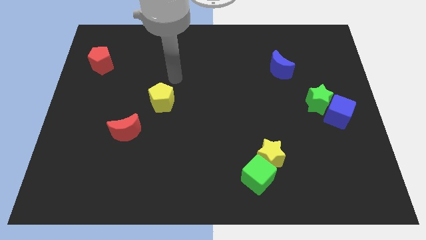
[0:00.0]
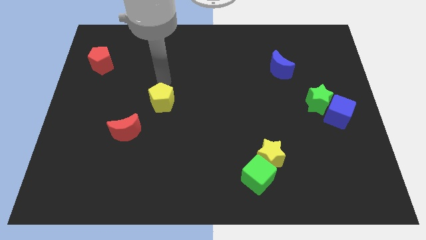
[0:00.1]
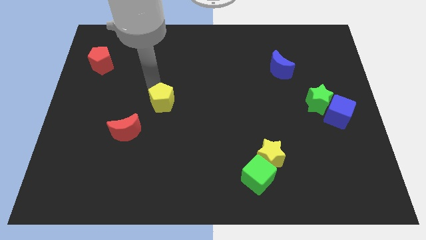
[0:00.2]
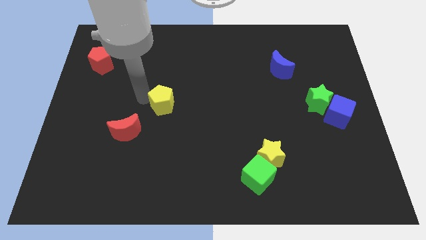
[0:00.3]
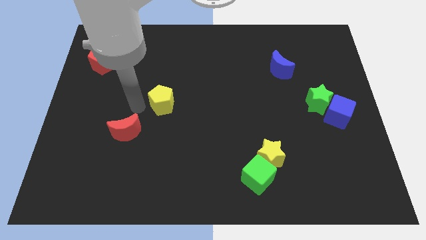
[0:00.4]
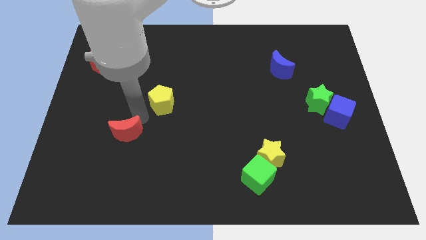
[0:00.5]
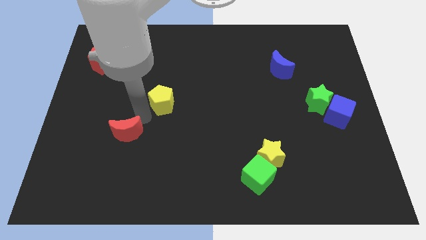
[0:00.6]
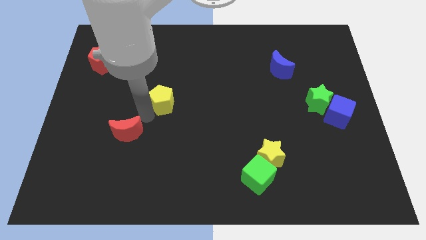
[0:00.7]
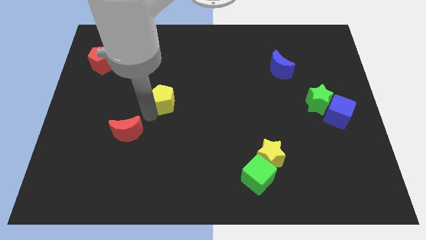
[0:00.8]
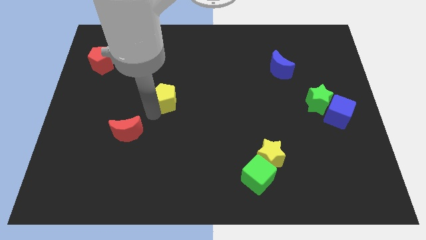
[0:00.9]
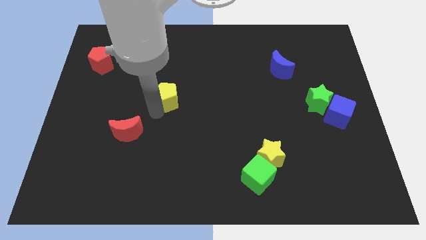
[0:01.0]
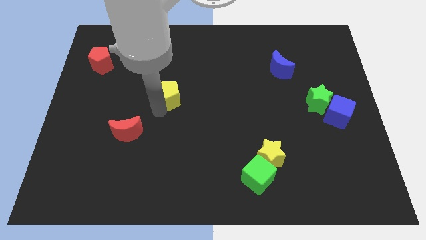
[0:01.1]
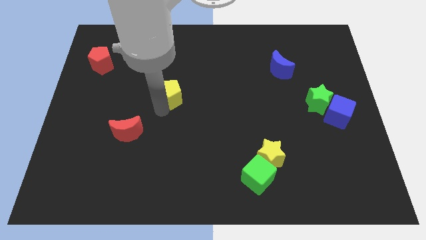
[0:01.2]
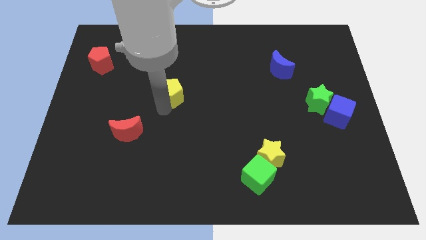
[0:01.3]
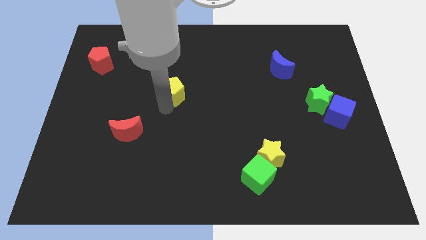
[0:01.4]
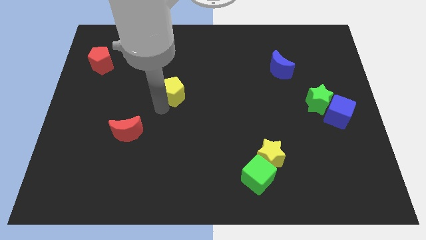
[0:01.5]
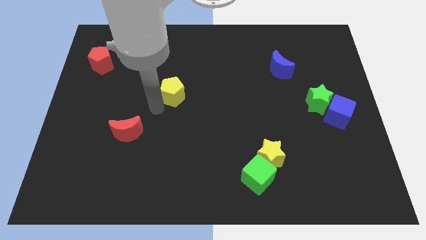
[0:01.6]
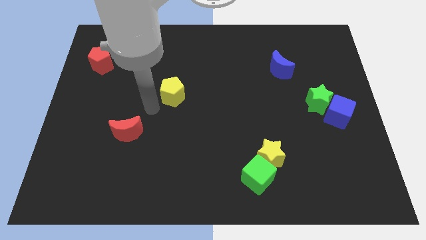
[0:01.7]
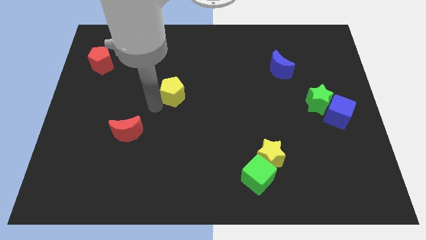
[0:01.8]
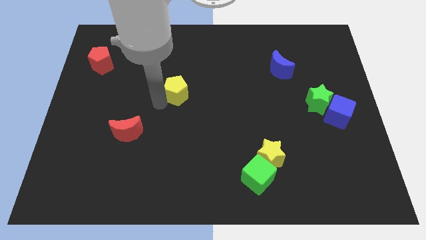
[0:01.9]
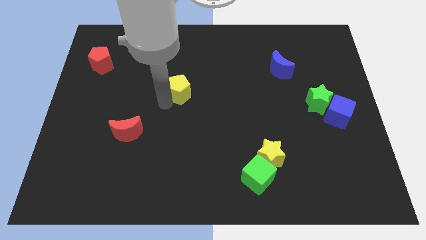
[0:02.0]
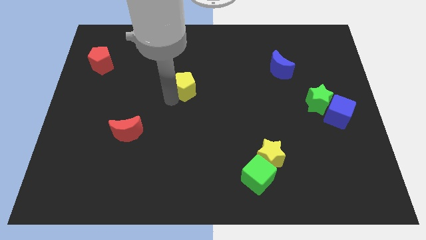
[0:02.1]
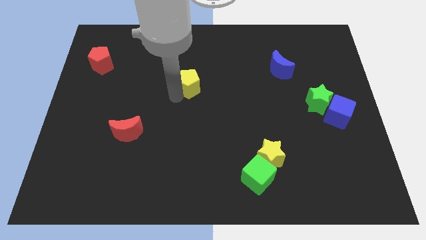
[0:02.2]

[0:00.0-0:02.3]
slide the yellow pentagon a little diagonally upwards and right

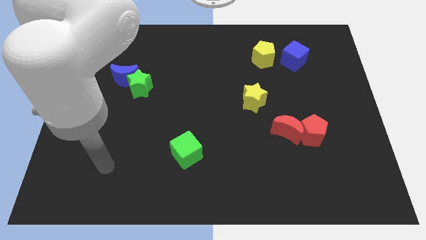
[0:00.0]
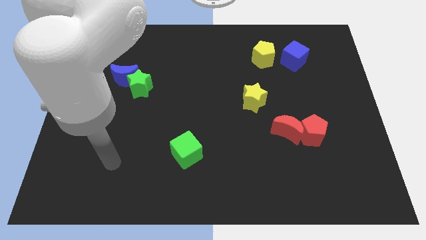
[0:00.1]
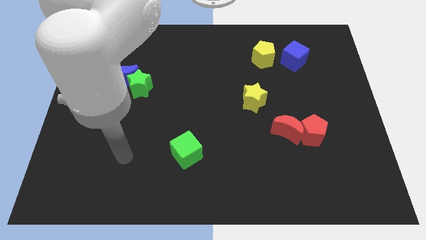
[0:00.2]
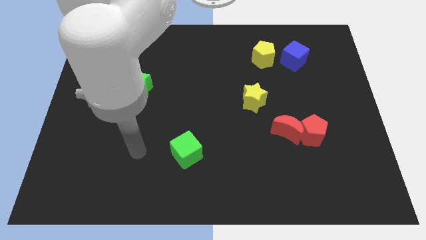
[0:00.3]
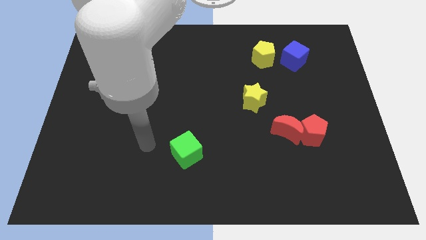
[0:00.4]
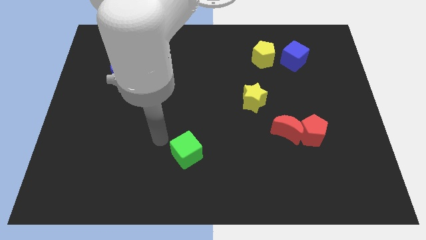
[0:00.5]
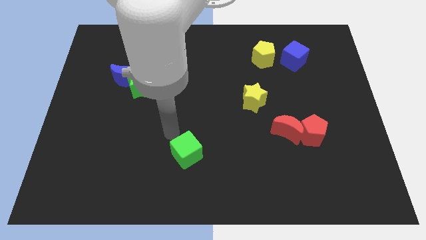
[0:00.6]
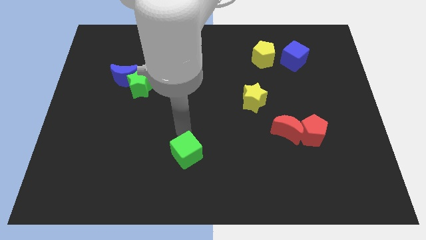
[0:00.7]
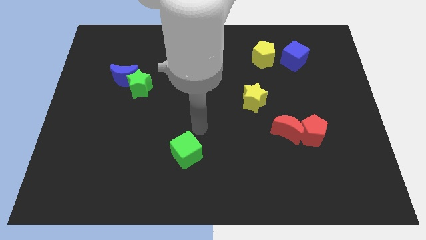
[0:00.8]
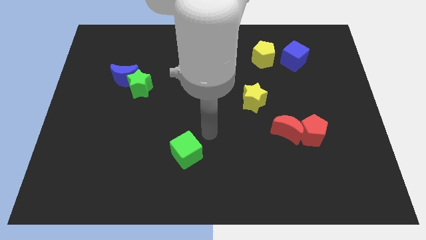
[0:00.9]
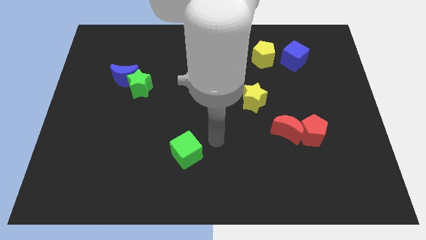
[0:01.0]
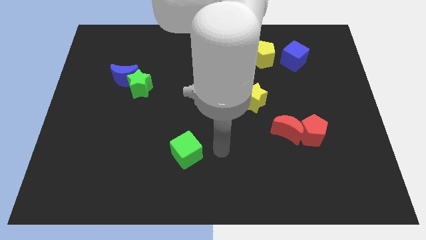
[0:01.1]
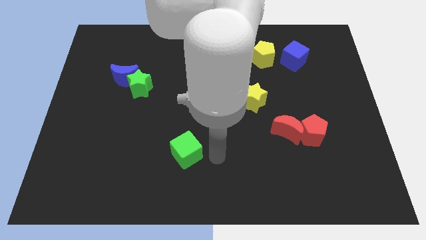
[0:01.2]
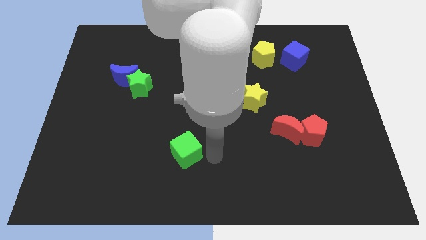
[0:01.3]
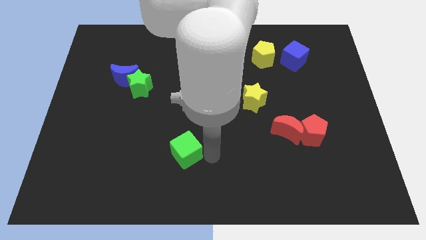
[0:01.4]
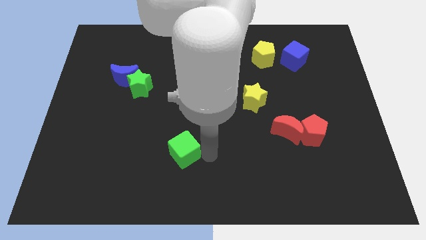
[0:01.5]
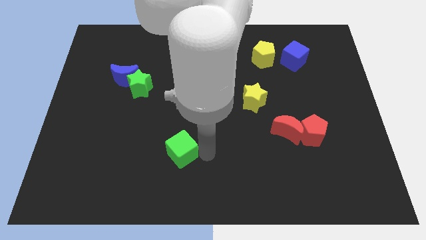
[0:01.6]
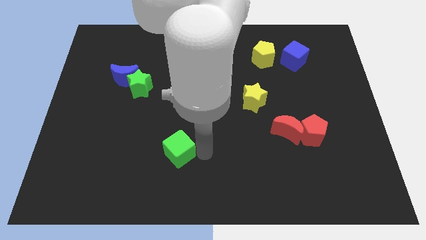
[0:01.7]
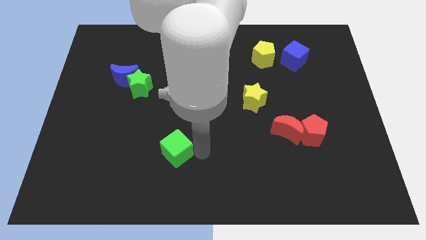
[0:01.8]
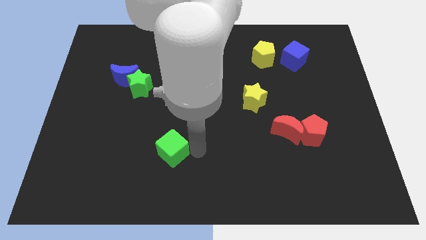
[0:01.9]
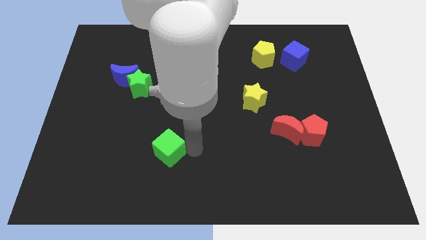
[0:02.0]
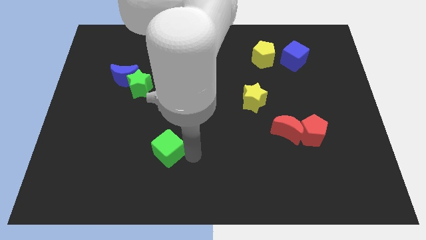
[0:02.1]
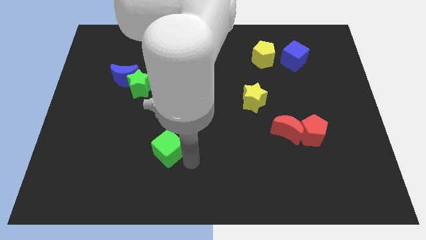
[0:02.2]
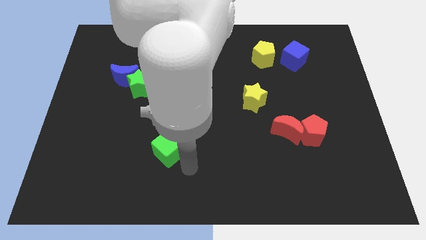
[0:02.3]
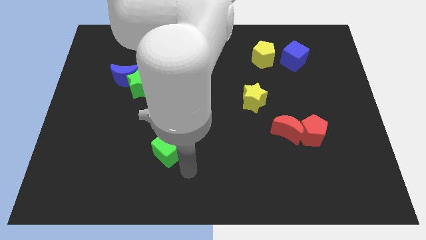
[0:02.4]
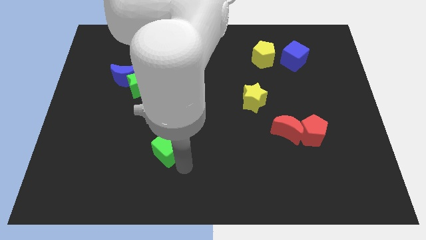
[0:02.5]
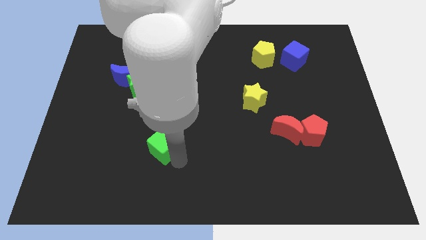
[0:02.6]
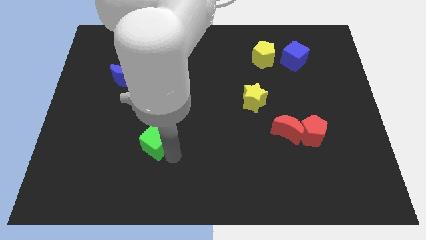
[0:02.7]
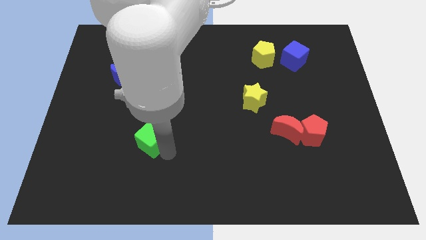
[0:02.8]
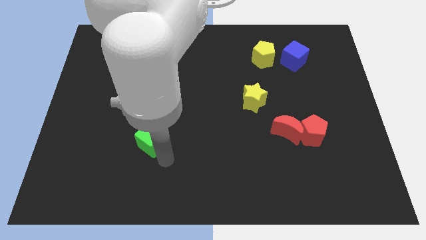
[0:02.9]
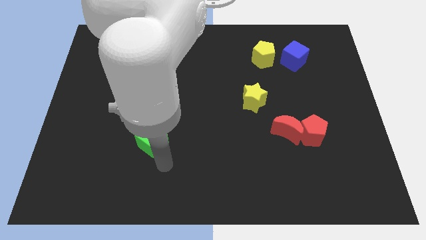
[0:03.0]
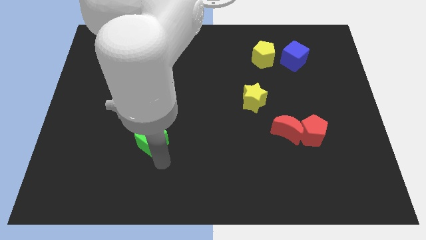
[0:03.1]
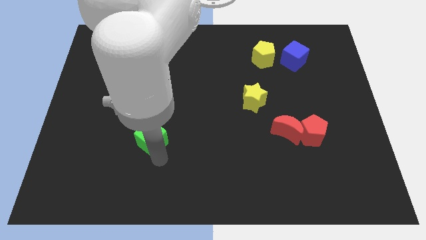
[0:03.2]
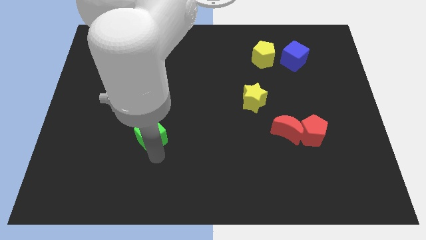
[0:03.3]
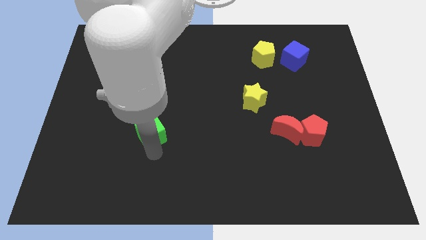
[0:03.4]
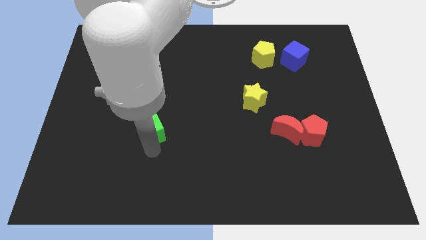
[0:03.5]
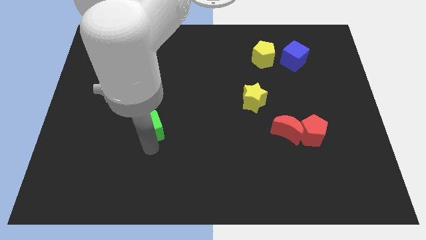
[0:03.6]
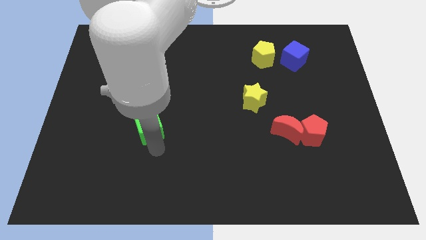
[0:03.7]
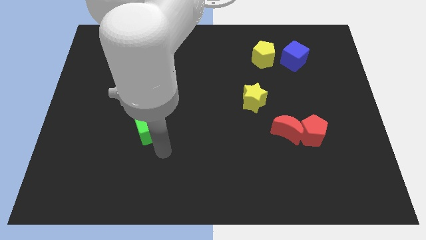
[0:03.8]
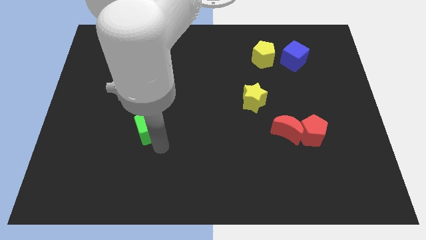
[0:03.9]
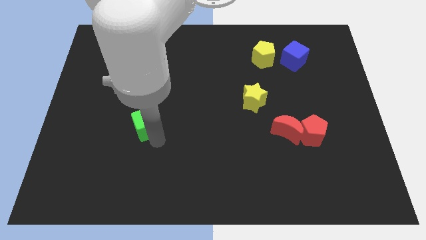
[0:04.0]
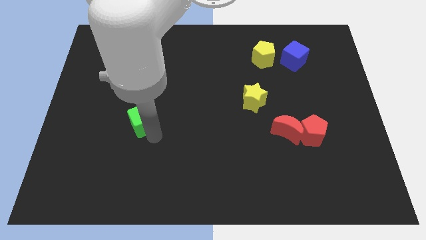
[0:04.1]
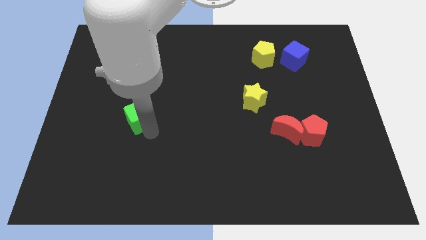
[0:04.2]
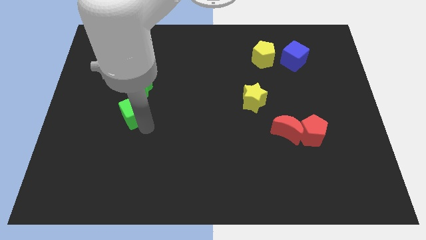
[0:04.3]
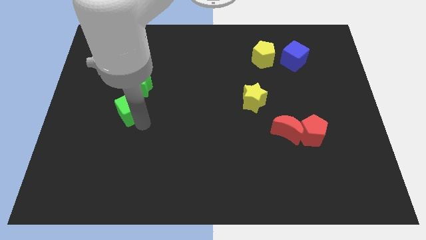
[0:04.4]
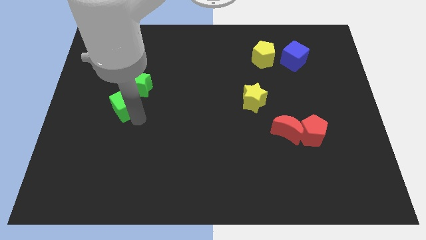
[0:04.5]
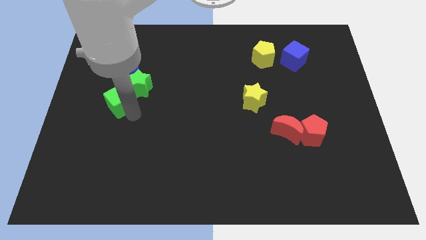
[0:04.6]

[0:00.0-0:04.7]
move the green cube diagonally upwards and to the left

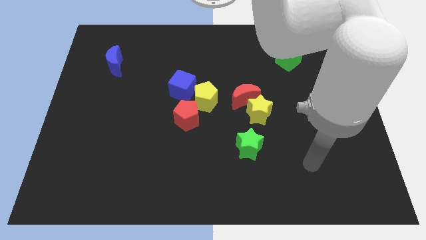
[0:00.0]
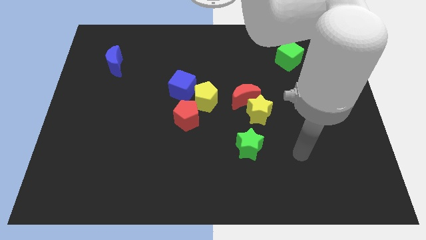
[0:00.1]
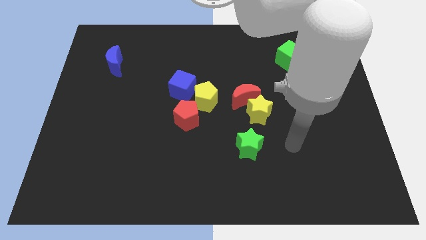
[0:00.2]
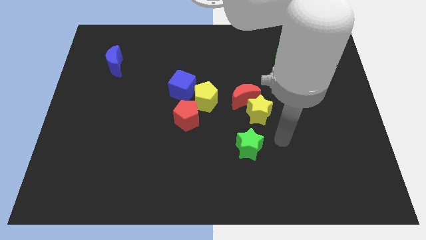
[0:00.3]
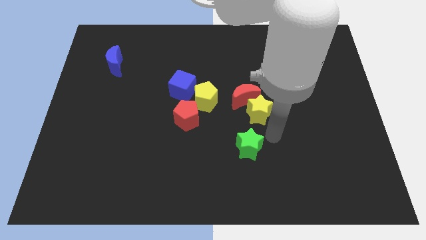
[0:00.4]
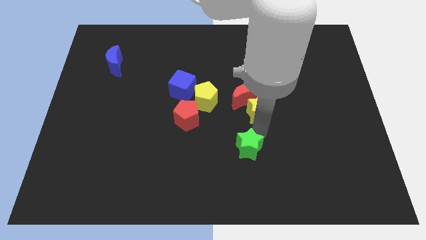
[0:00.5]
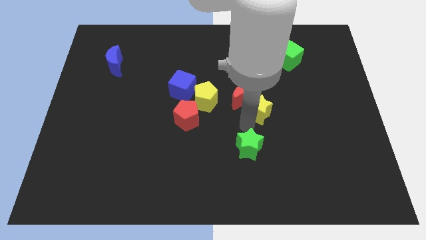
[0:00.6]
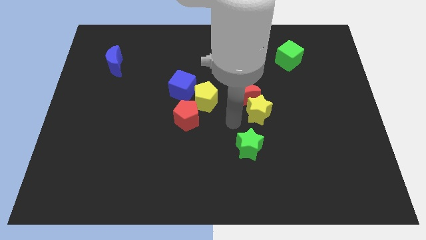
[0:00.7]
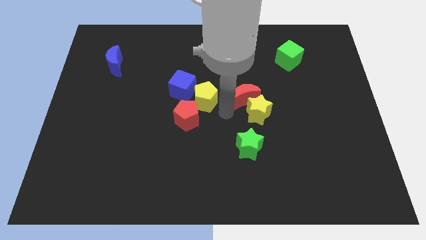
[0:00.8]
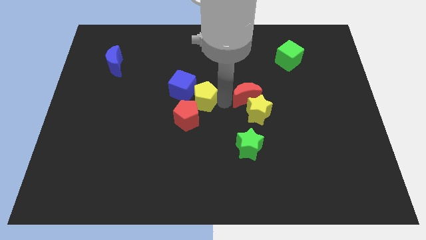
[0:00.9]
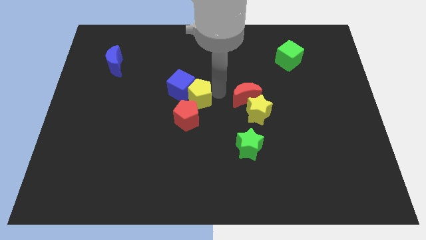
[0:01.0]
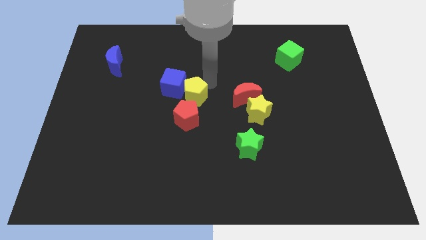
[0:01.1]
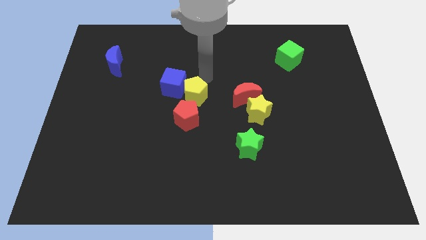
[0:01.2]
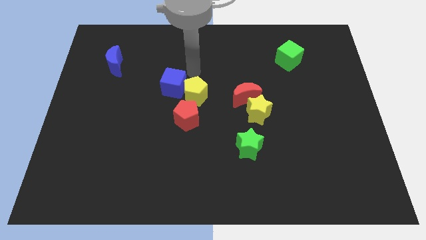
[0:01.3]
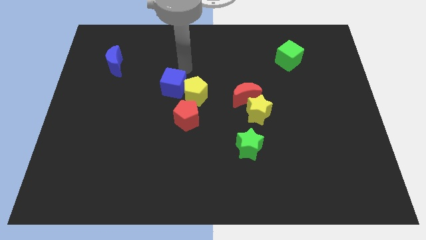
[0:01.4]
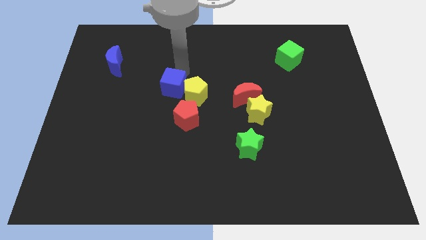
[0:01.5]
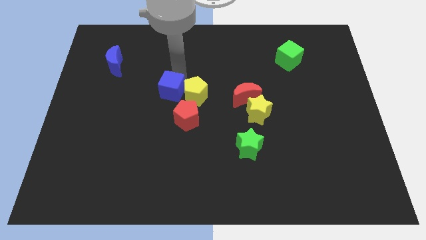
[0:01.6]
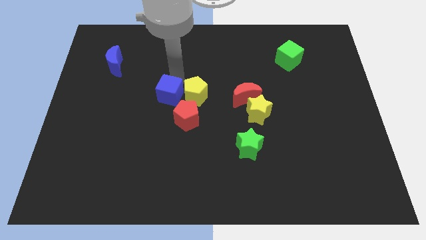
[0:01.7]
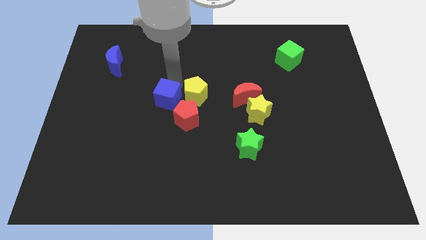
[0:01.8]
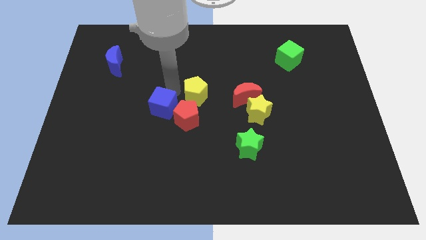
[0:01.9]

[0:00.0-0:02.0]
move the blue cube down and then to the left a little bit
